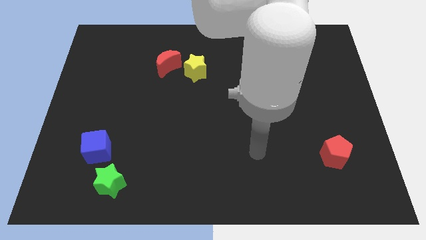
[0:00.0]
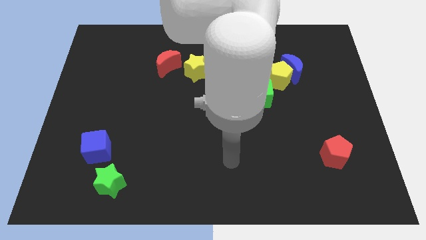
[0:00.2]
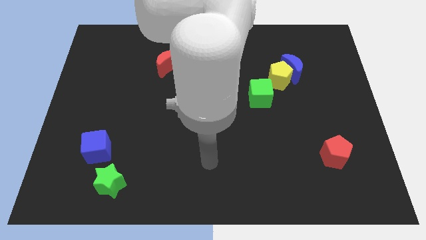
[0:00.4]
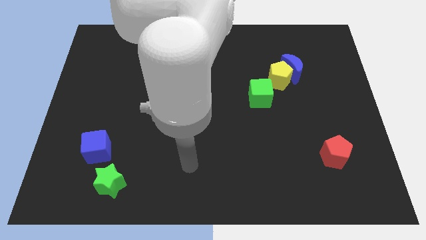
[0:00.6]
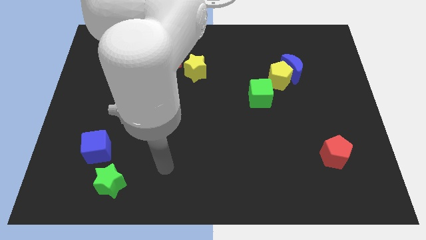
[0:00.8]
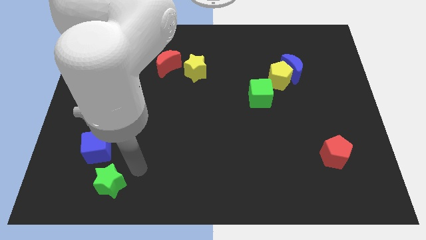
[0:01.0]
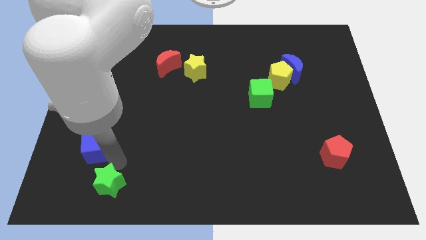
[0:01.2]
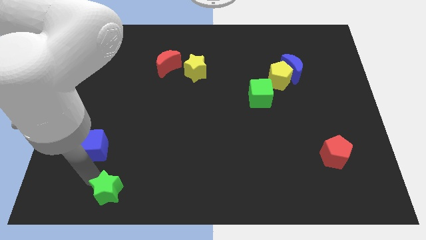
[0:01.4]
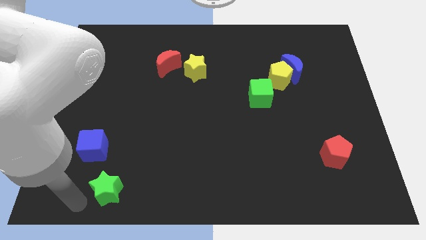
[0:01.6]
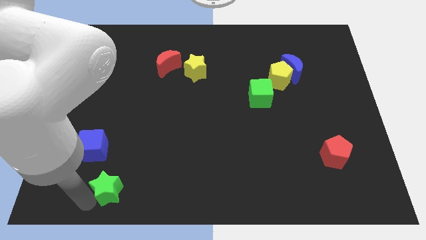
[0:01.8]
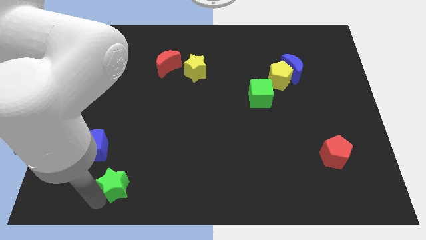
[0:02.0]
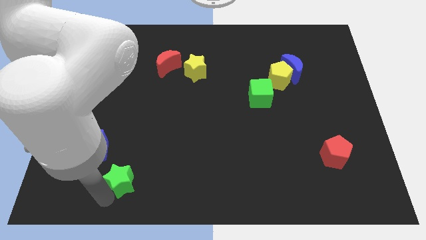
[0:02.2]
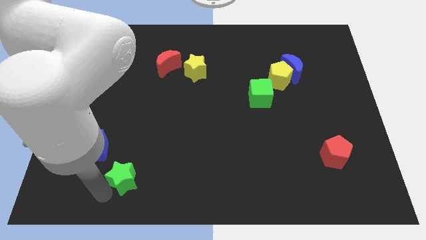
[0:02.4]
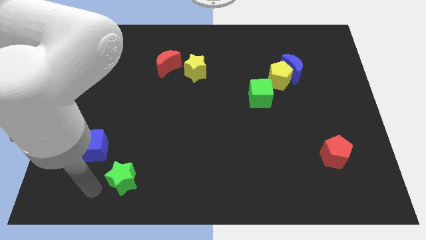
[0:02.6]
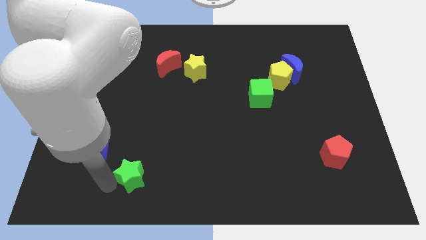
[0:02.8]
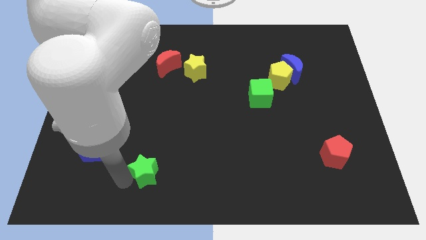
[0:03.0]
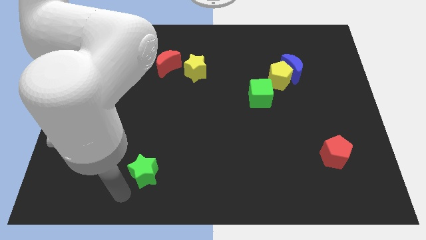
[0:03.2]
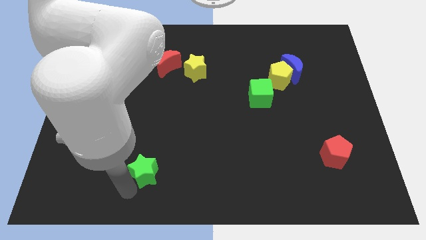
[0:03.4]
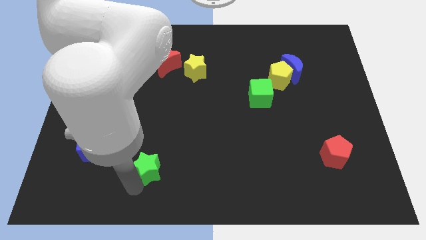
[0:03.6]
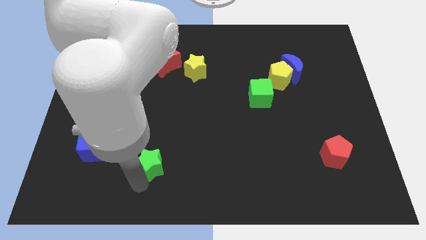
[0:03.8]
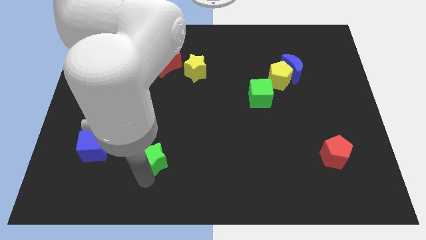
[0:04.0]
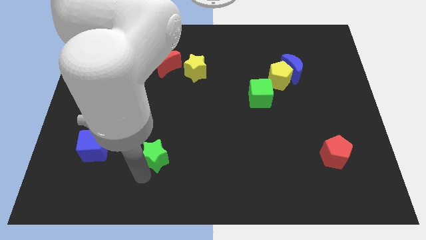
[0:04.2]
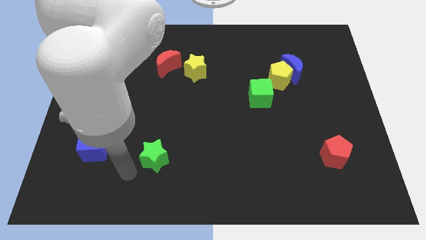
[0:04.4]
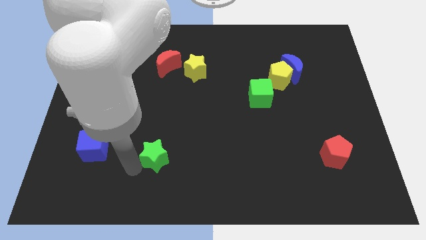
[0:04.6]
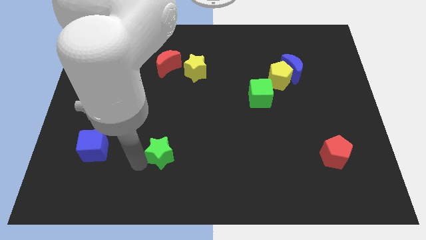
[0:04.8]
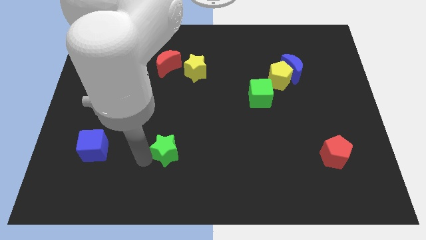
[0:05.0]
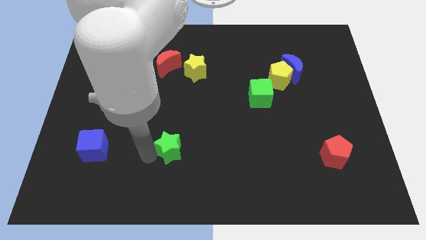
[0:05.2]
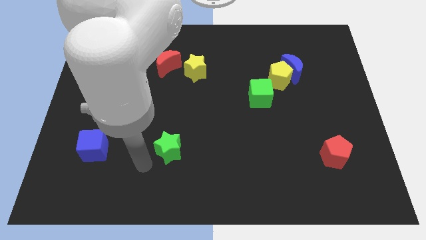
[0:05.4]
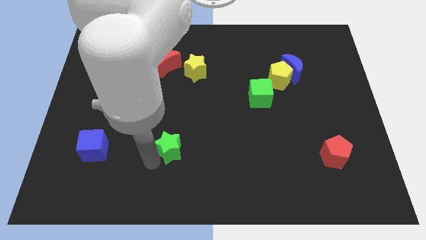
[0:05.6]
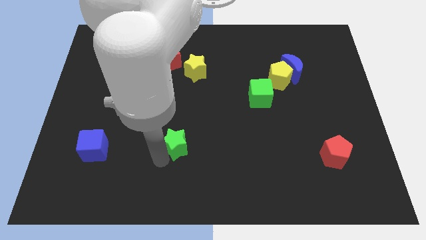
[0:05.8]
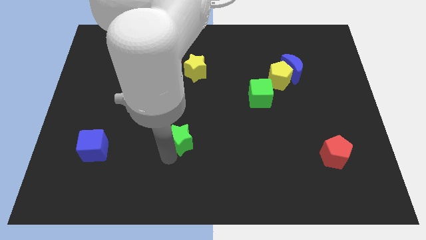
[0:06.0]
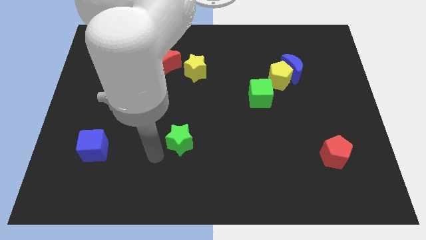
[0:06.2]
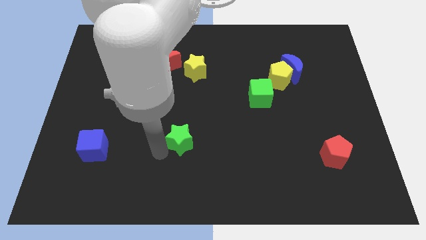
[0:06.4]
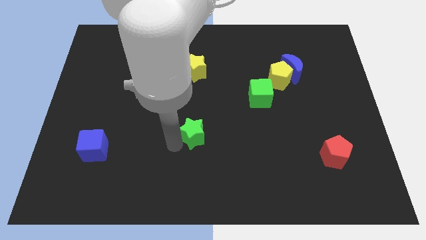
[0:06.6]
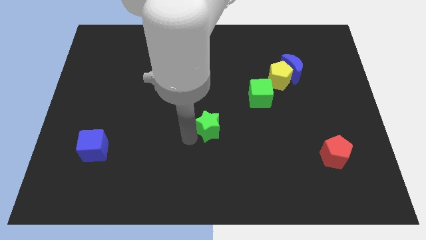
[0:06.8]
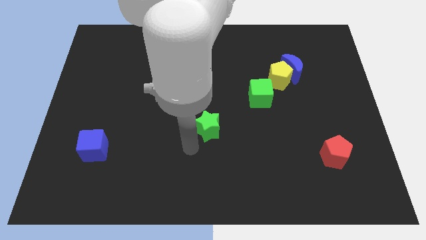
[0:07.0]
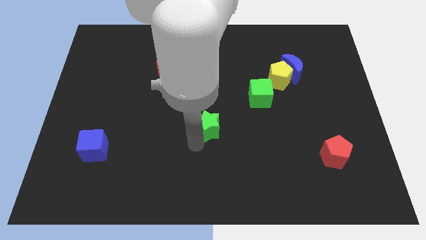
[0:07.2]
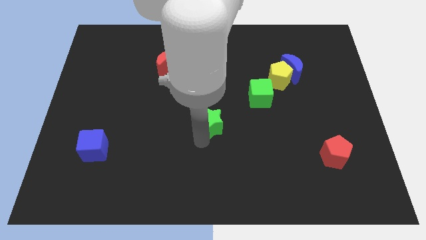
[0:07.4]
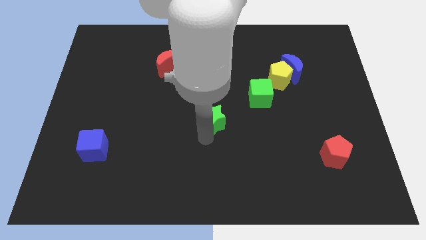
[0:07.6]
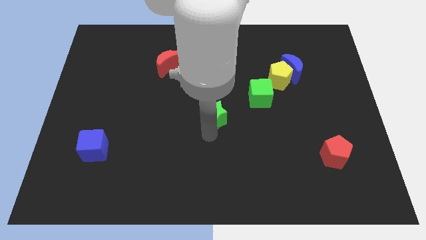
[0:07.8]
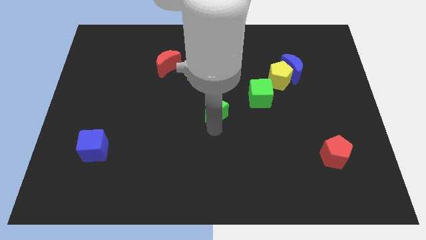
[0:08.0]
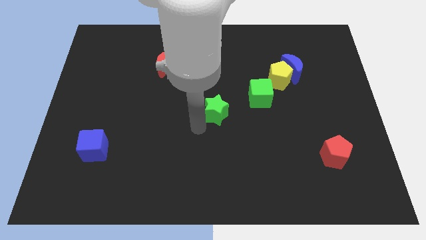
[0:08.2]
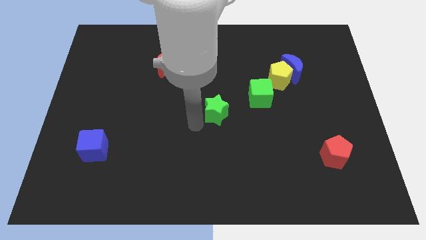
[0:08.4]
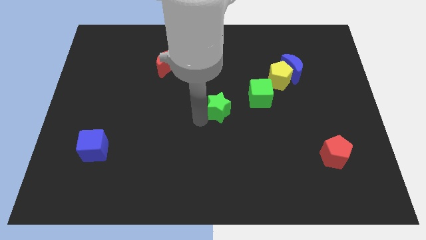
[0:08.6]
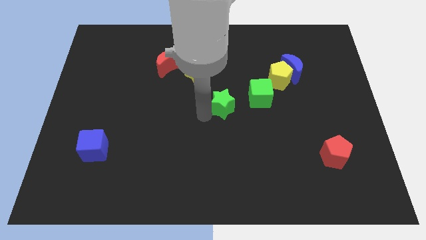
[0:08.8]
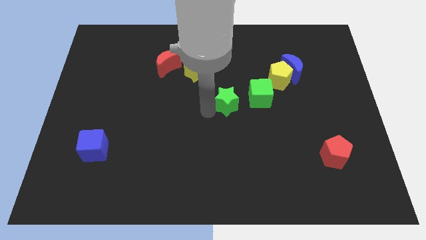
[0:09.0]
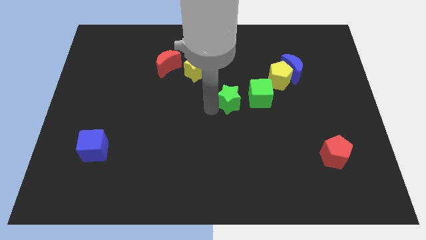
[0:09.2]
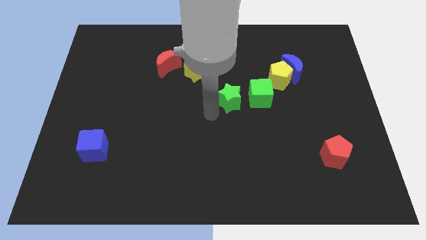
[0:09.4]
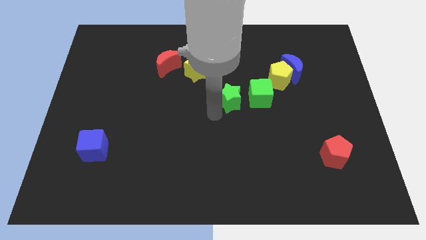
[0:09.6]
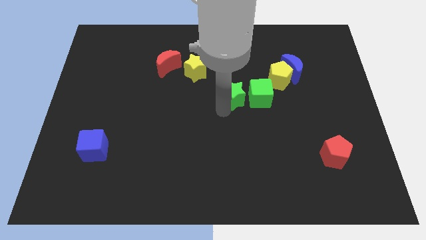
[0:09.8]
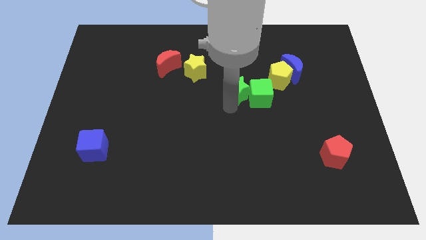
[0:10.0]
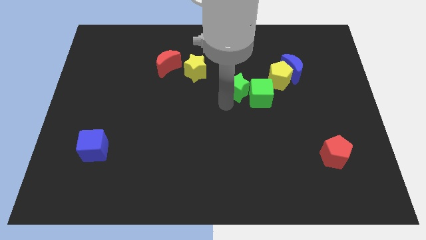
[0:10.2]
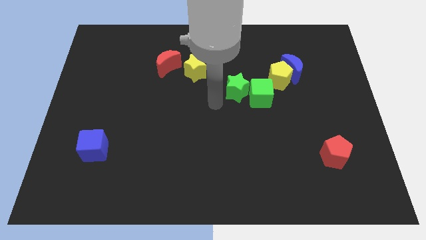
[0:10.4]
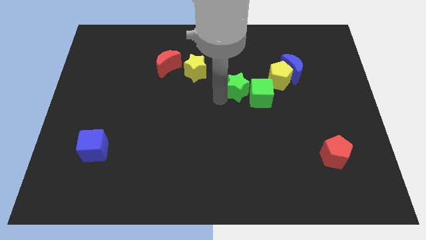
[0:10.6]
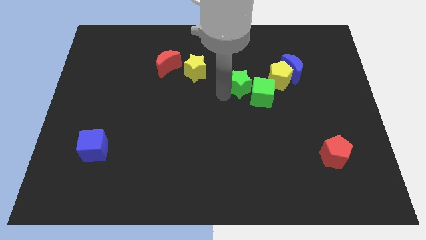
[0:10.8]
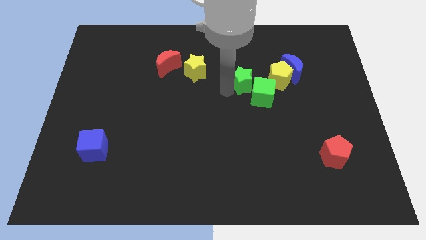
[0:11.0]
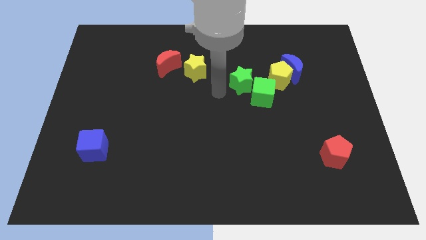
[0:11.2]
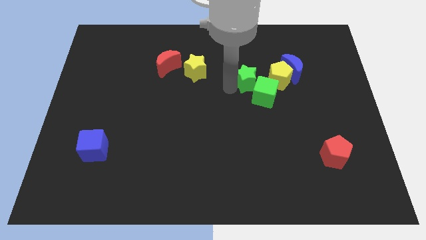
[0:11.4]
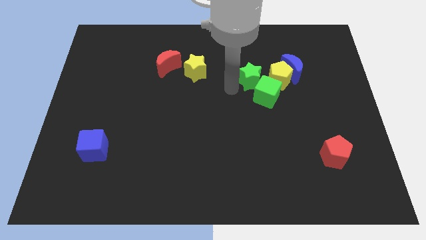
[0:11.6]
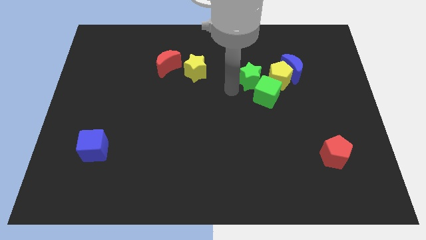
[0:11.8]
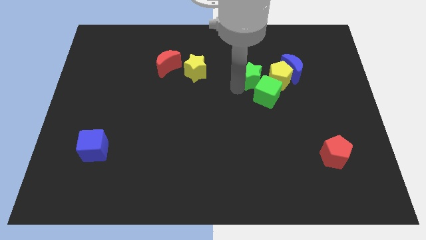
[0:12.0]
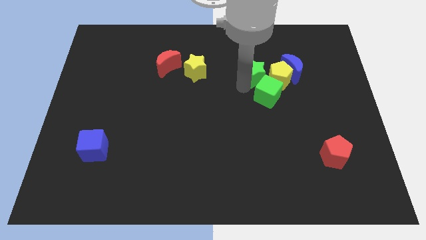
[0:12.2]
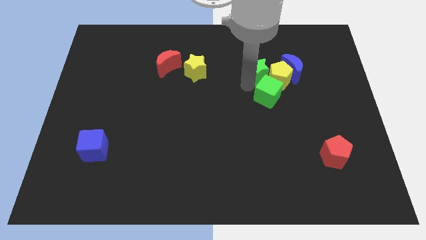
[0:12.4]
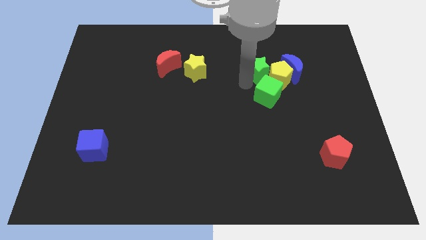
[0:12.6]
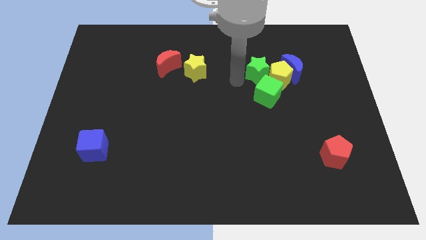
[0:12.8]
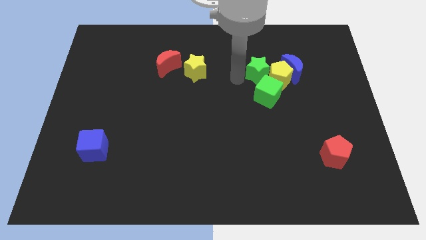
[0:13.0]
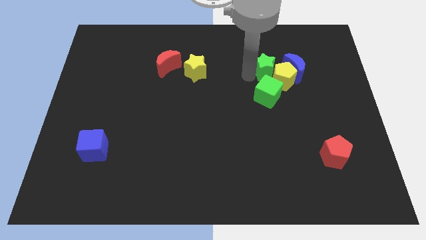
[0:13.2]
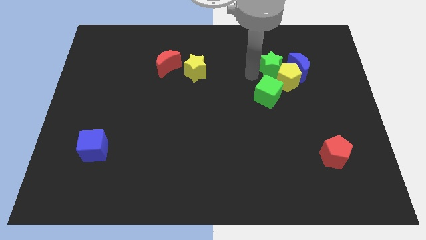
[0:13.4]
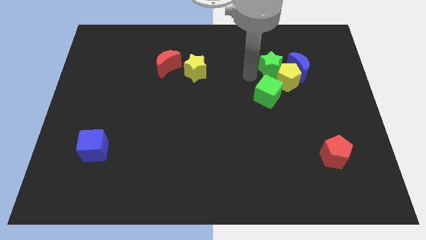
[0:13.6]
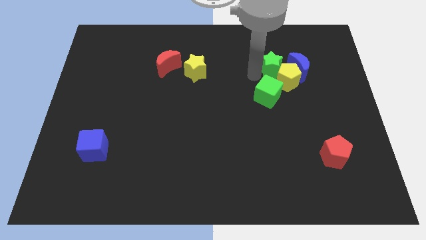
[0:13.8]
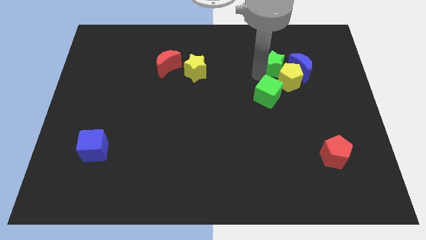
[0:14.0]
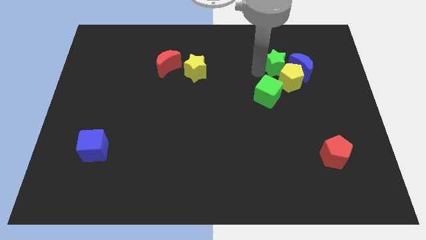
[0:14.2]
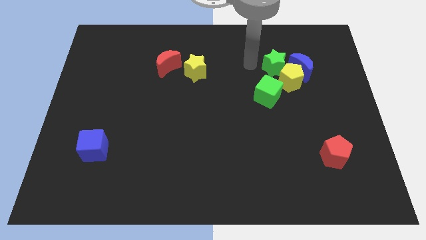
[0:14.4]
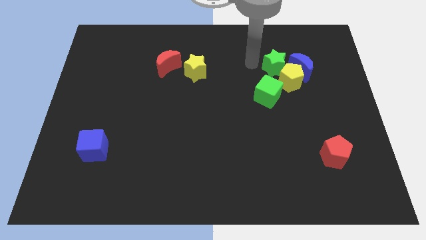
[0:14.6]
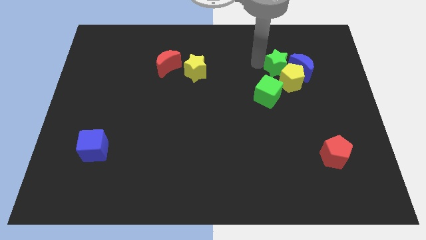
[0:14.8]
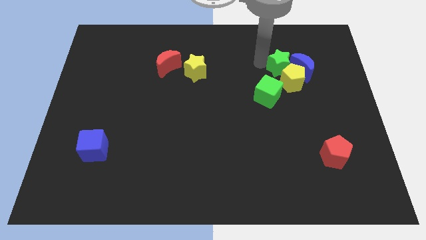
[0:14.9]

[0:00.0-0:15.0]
put the green star towards the blue moon
